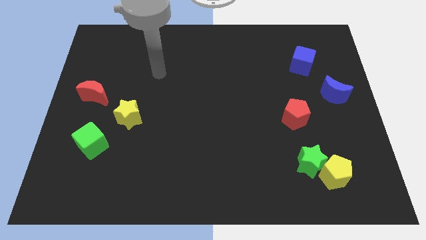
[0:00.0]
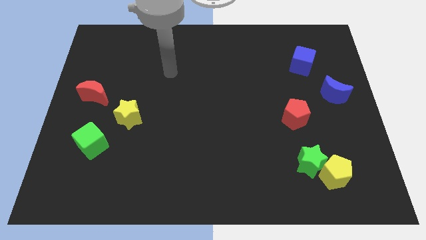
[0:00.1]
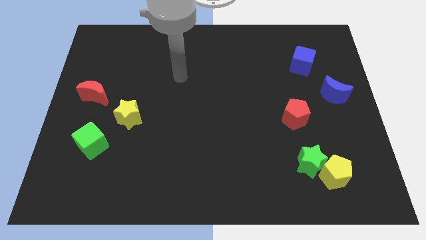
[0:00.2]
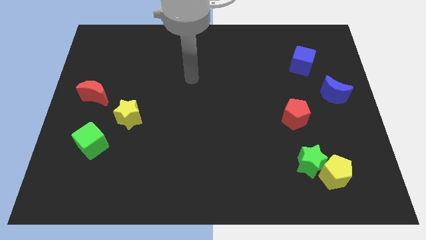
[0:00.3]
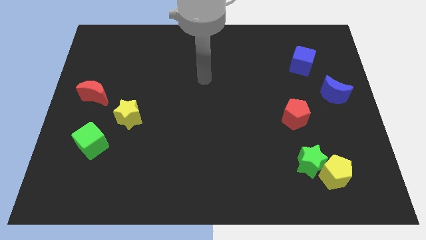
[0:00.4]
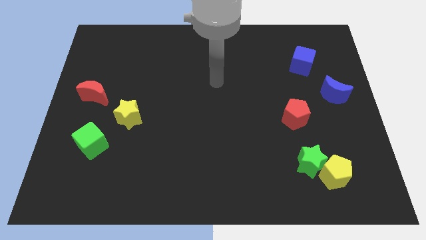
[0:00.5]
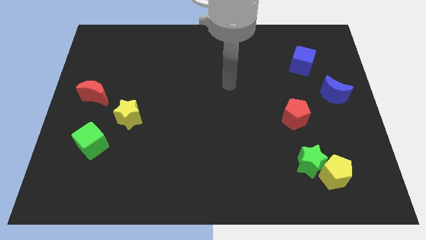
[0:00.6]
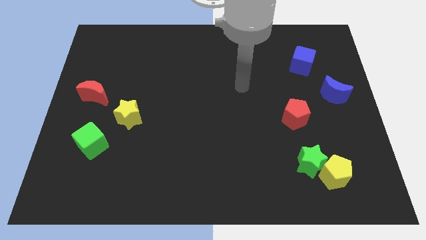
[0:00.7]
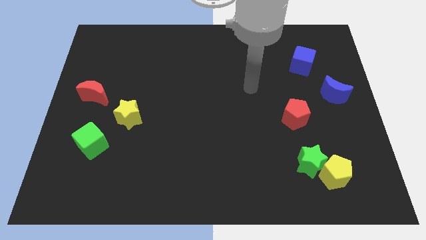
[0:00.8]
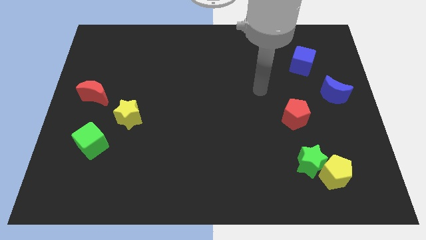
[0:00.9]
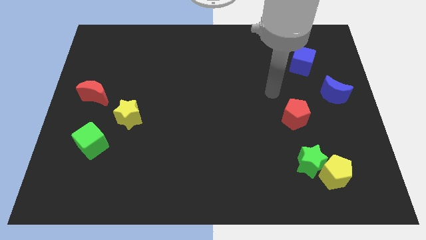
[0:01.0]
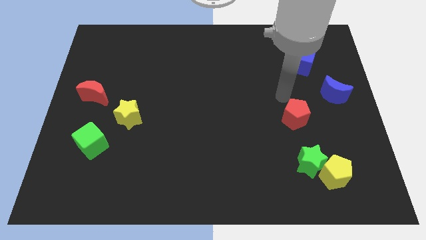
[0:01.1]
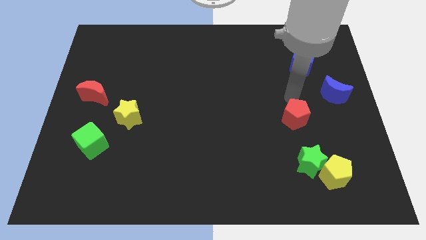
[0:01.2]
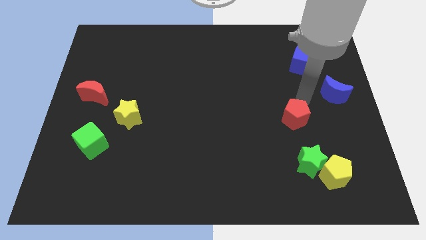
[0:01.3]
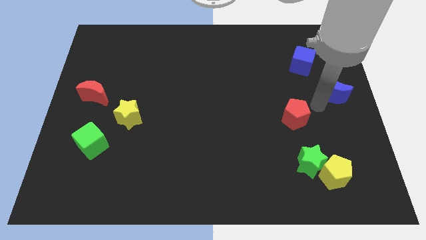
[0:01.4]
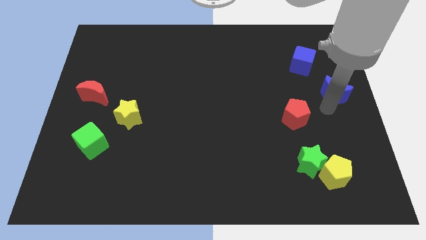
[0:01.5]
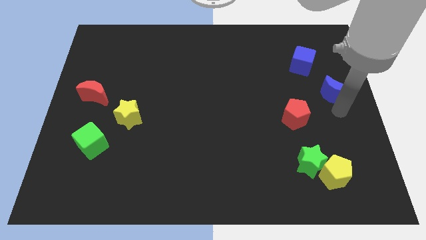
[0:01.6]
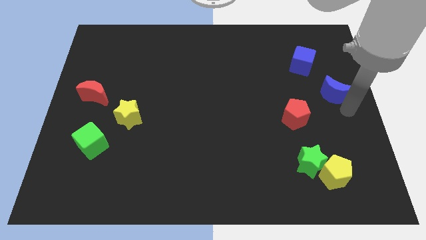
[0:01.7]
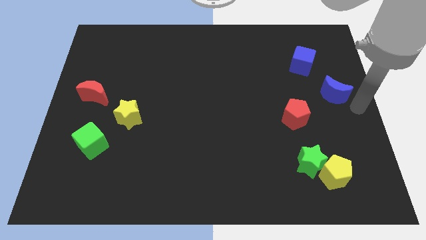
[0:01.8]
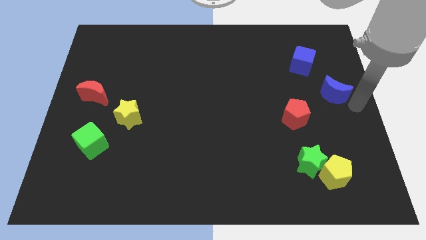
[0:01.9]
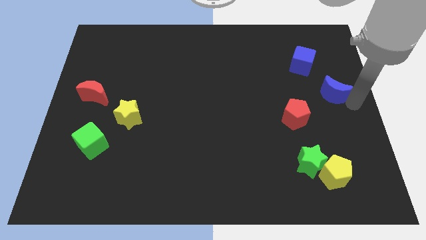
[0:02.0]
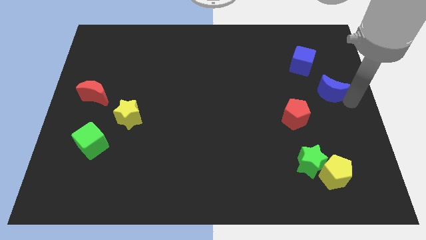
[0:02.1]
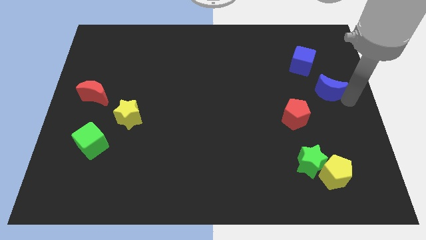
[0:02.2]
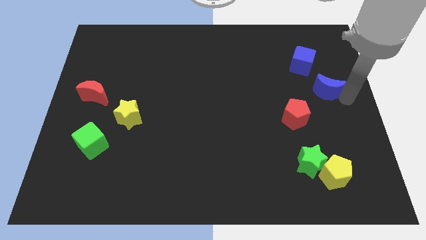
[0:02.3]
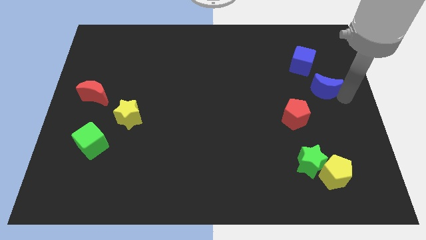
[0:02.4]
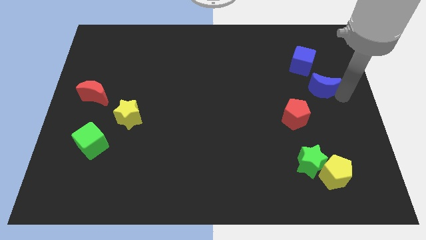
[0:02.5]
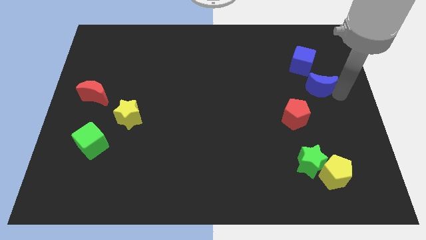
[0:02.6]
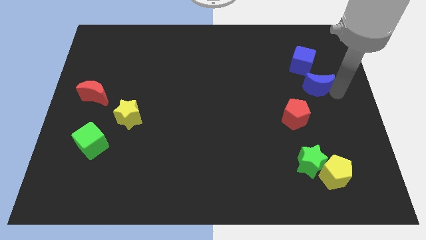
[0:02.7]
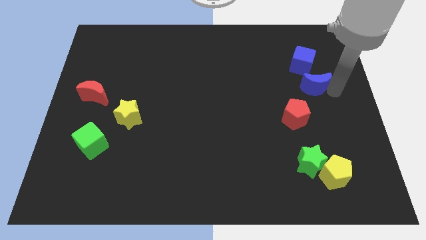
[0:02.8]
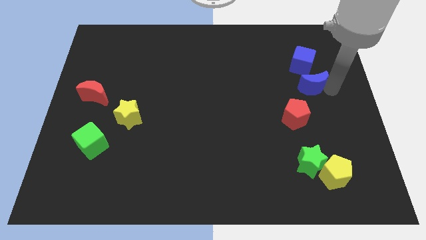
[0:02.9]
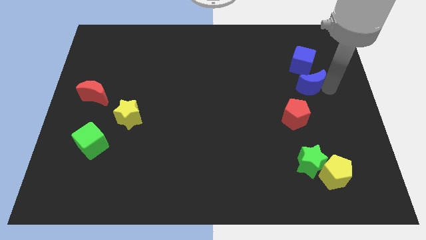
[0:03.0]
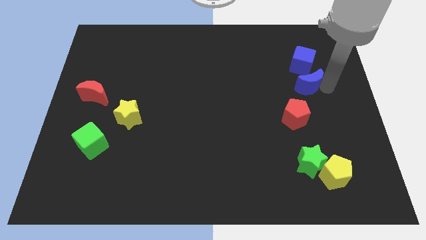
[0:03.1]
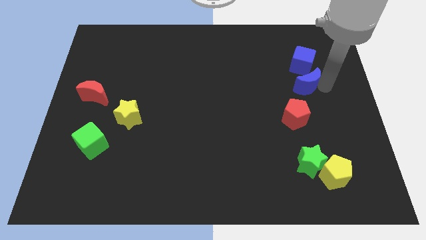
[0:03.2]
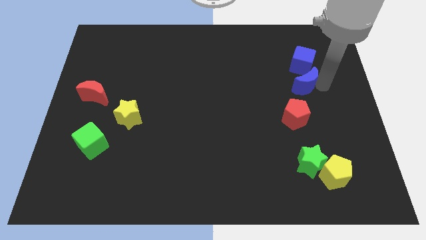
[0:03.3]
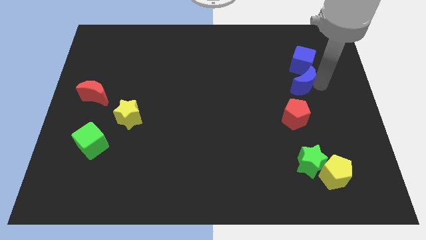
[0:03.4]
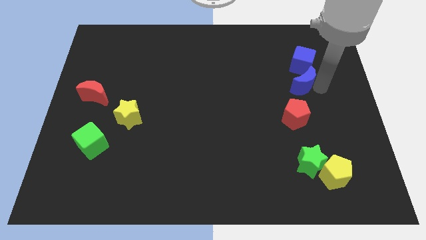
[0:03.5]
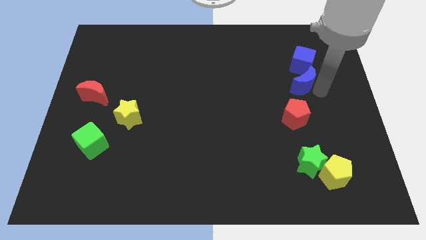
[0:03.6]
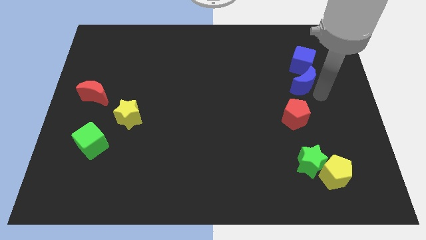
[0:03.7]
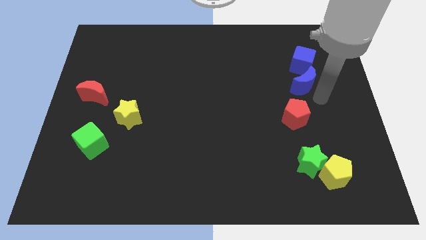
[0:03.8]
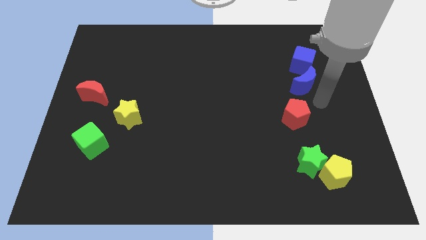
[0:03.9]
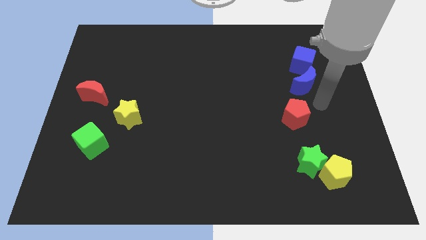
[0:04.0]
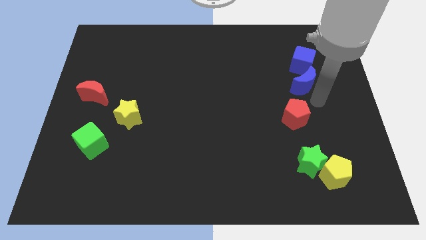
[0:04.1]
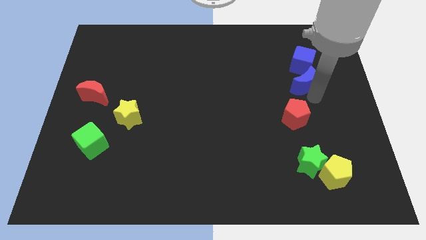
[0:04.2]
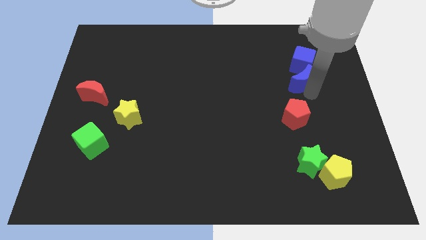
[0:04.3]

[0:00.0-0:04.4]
move the blue moon diagonally upwards and to the left somewhat

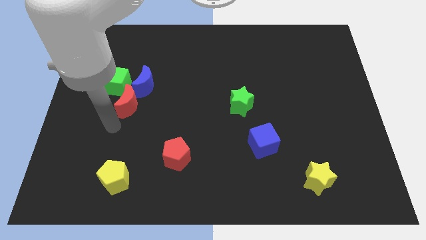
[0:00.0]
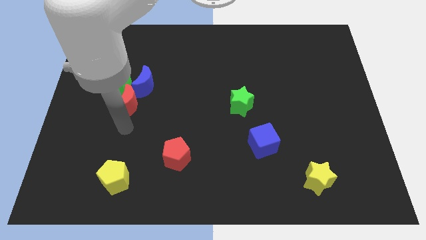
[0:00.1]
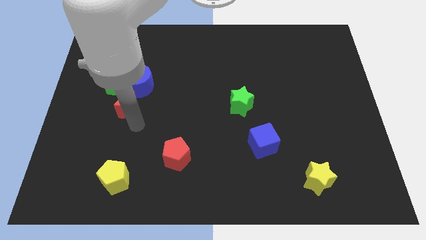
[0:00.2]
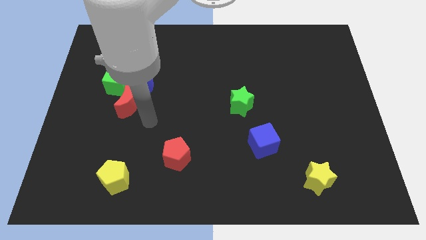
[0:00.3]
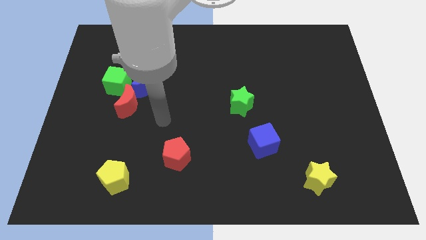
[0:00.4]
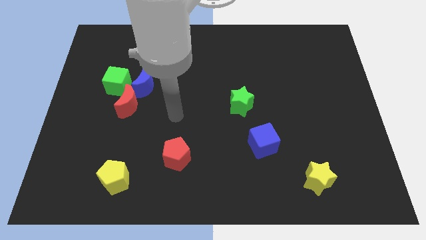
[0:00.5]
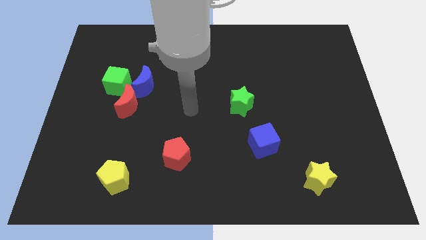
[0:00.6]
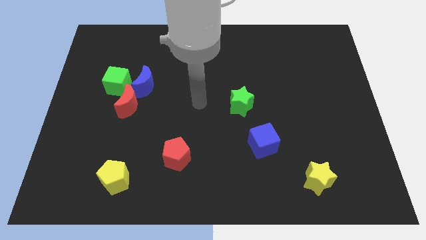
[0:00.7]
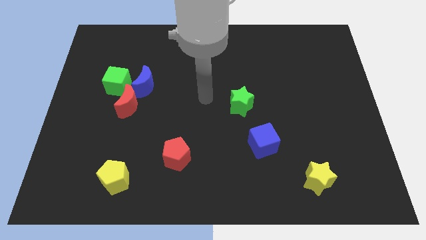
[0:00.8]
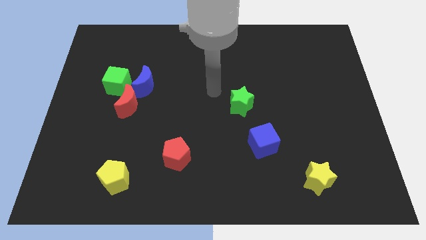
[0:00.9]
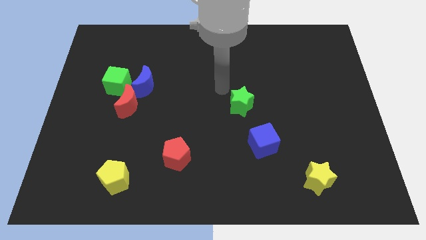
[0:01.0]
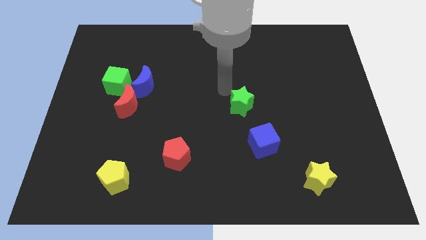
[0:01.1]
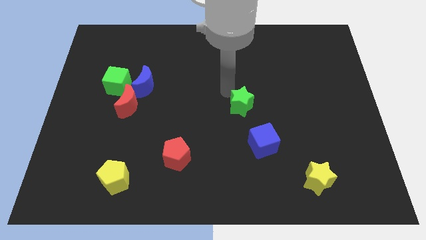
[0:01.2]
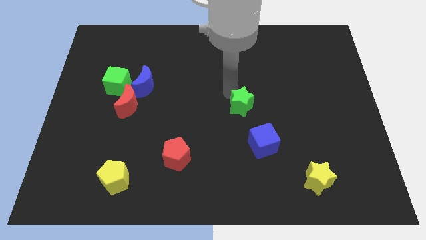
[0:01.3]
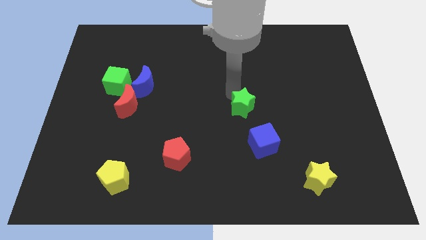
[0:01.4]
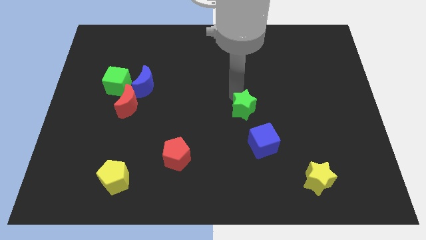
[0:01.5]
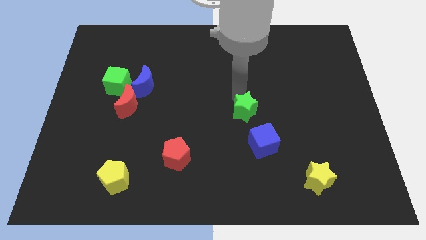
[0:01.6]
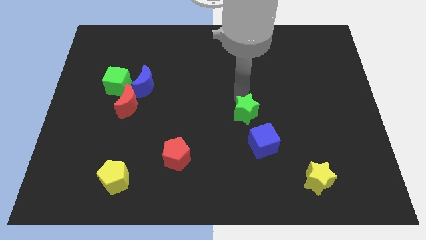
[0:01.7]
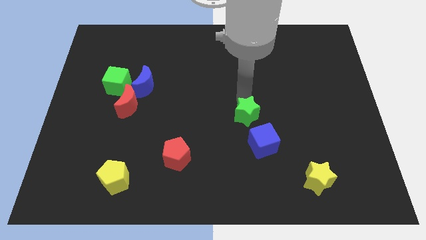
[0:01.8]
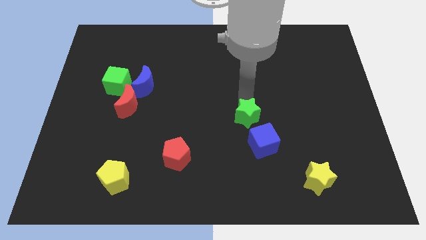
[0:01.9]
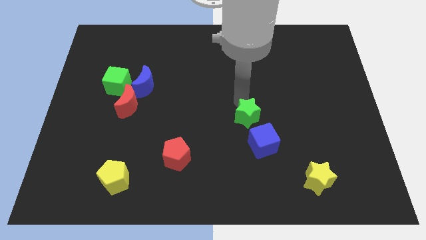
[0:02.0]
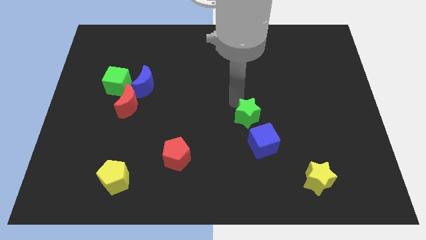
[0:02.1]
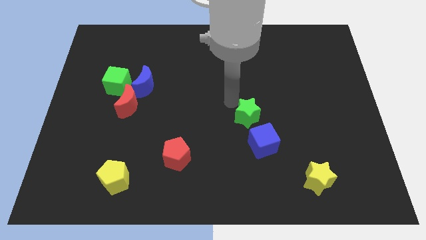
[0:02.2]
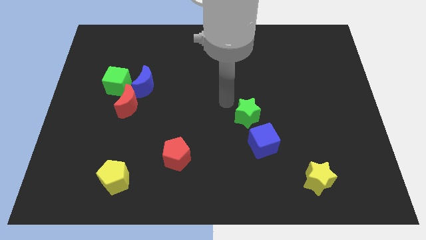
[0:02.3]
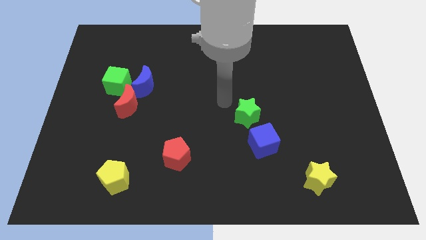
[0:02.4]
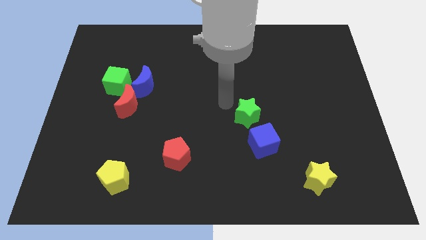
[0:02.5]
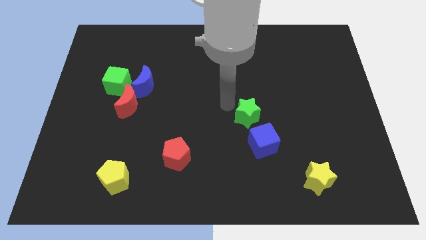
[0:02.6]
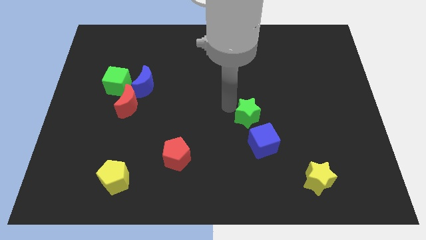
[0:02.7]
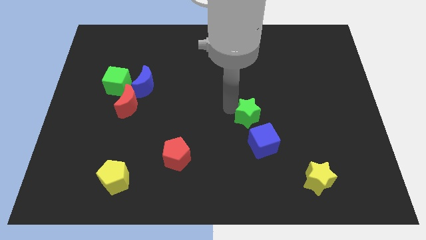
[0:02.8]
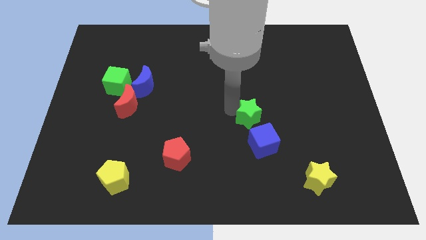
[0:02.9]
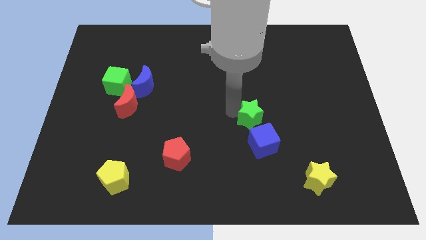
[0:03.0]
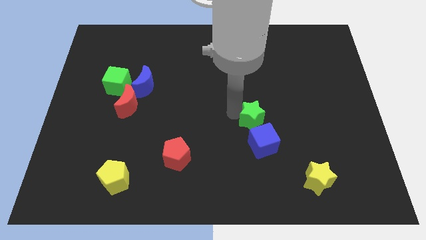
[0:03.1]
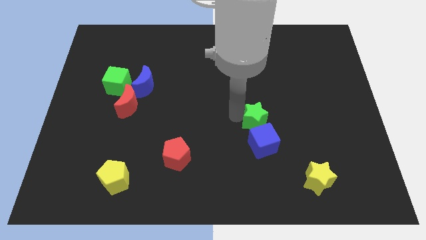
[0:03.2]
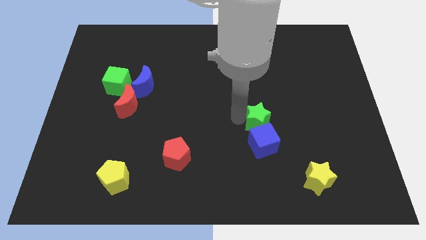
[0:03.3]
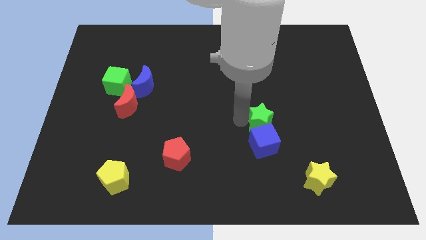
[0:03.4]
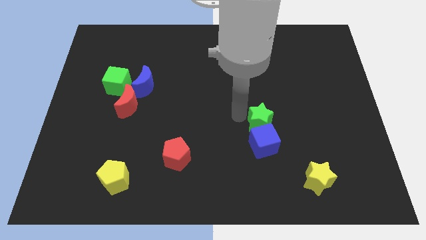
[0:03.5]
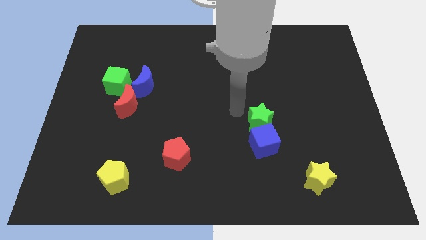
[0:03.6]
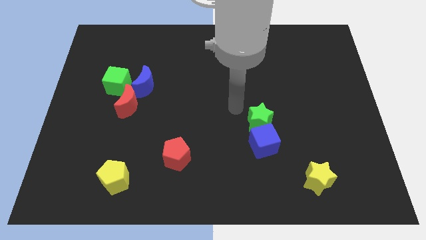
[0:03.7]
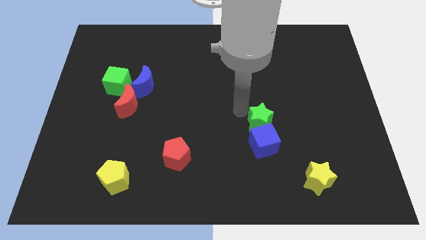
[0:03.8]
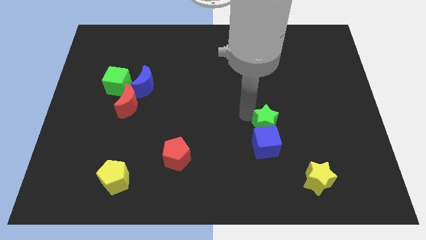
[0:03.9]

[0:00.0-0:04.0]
slightly move the green star downwards and right
